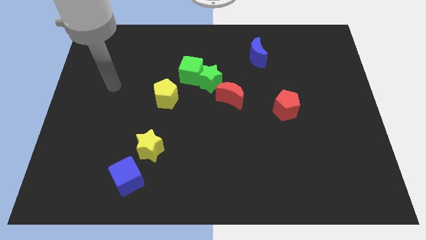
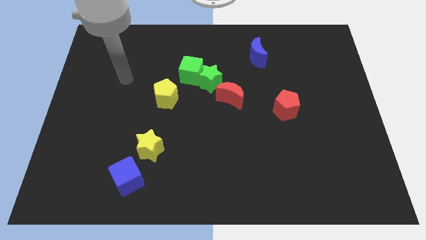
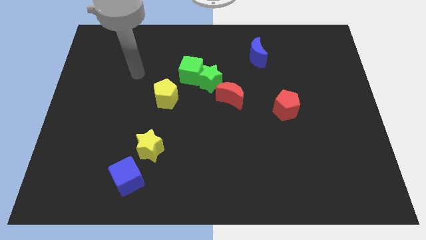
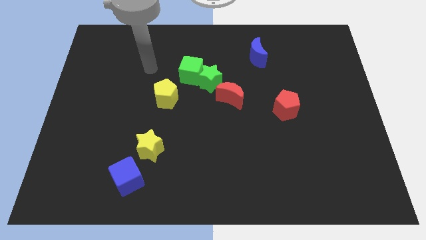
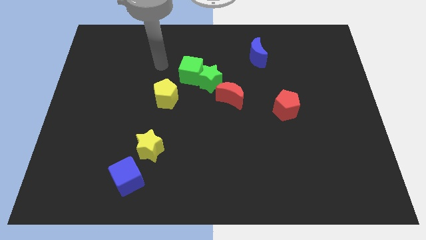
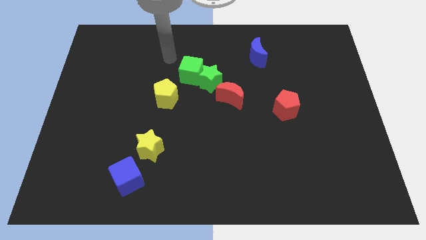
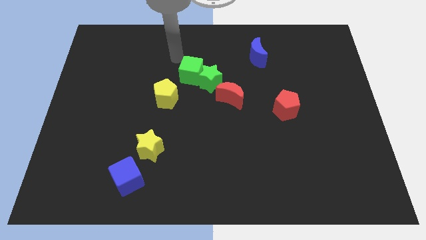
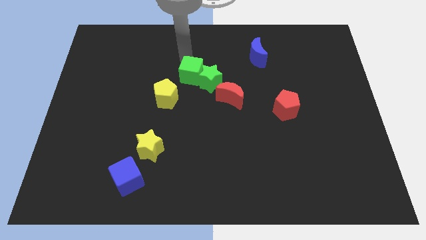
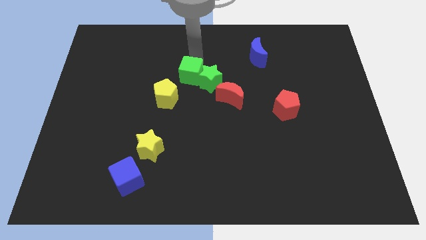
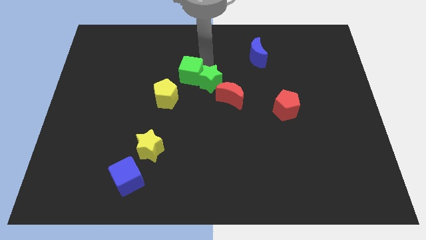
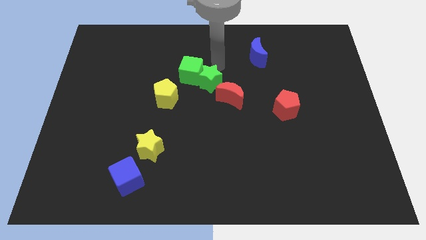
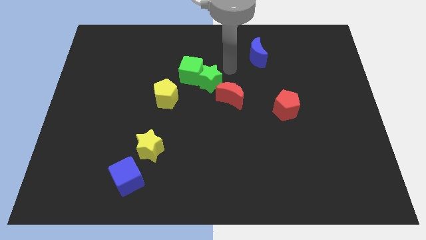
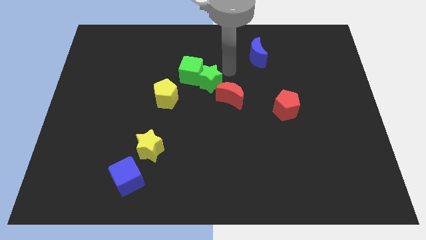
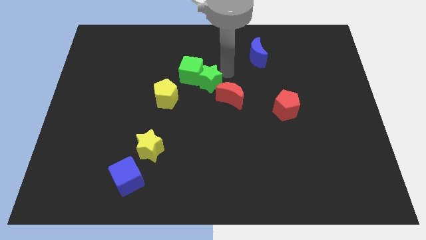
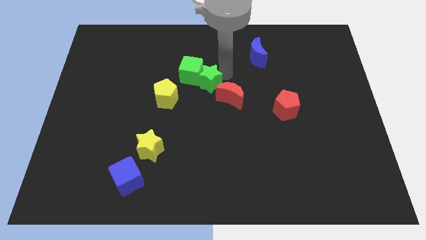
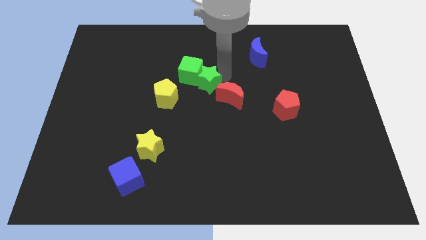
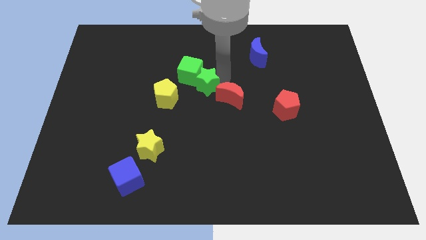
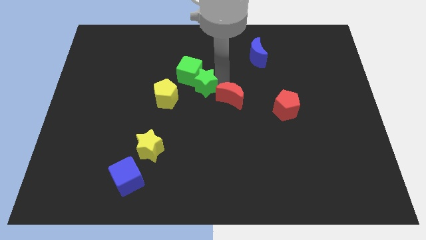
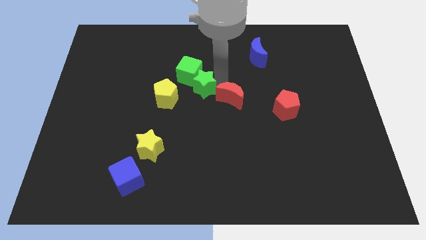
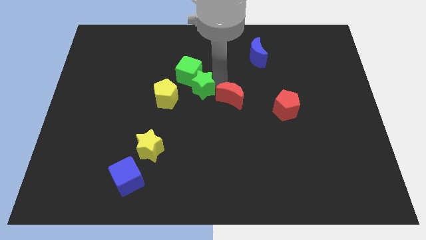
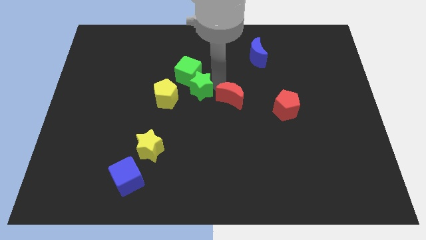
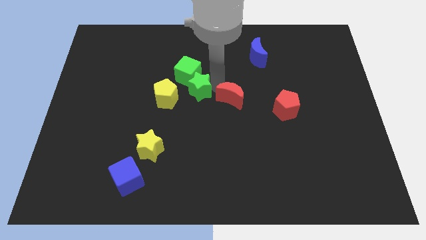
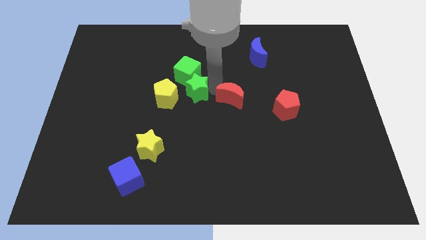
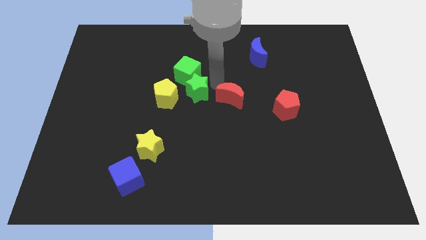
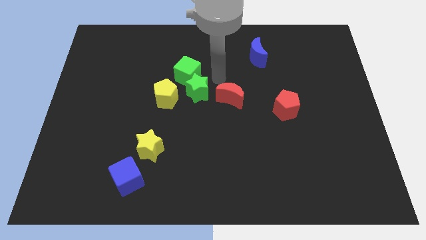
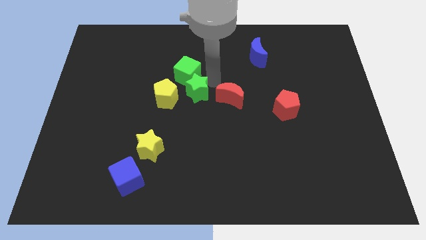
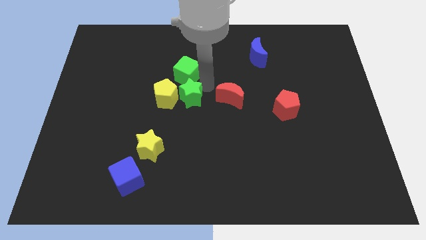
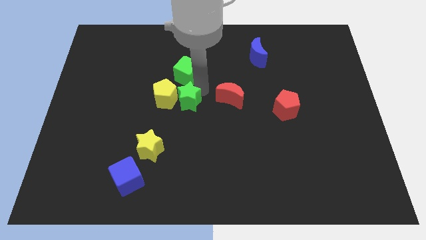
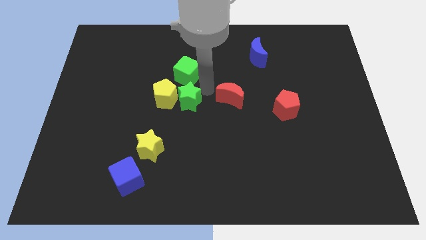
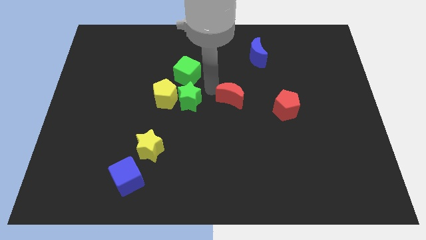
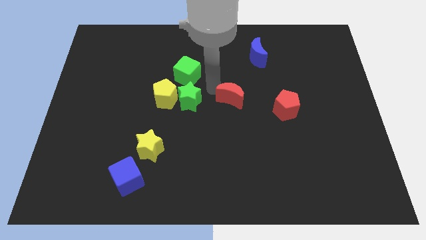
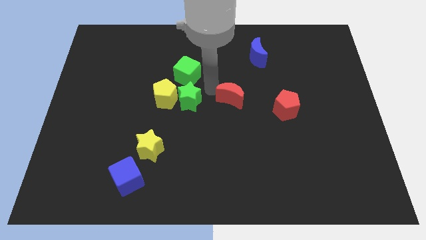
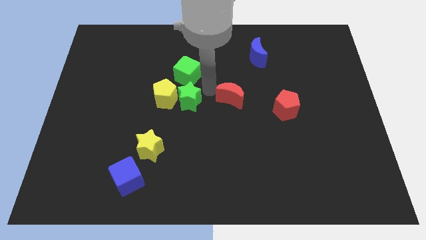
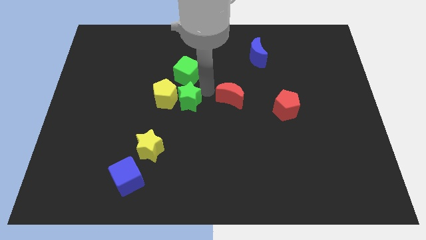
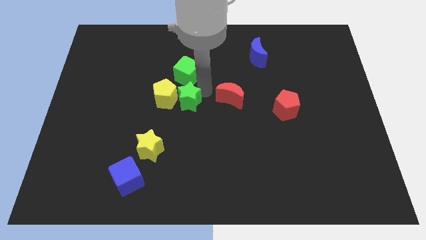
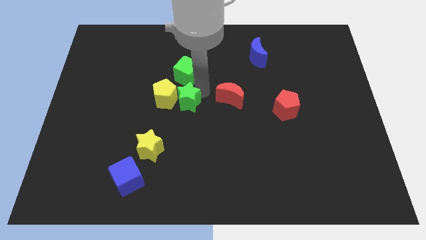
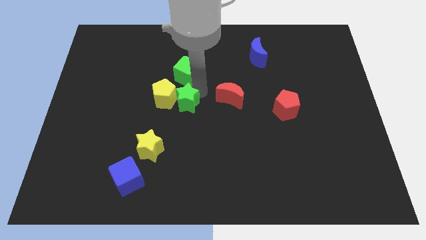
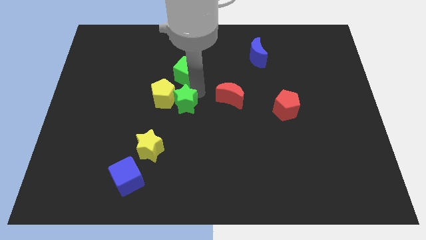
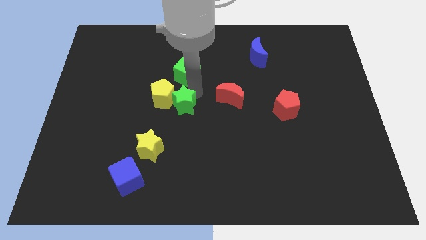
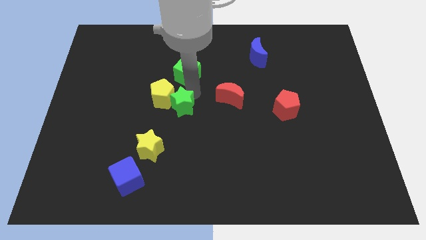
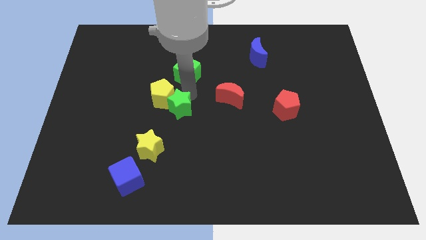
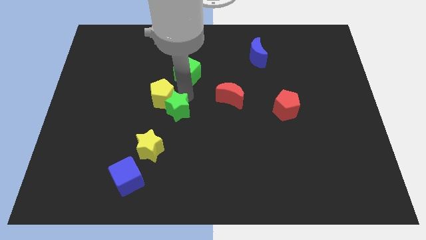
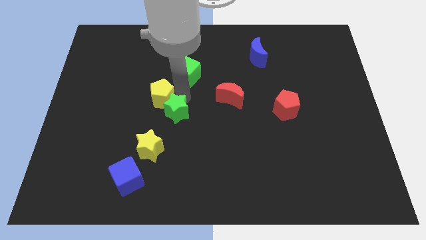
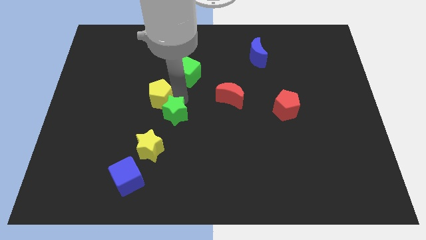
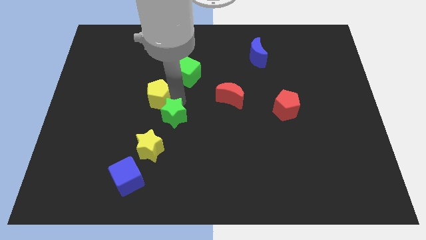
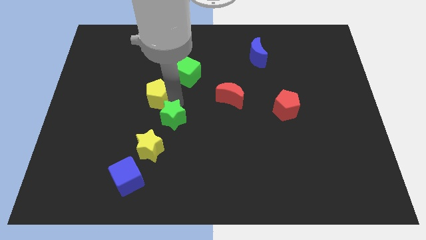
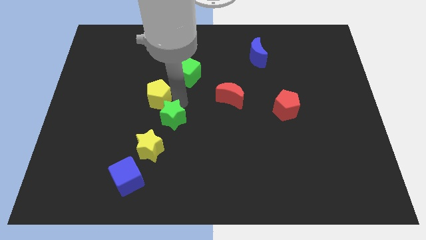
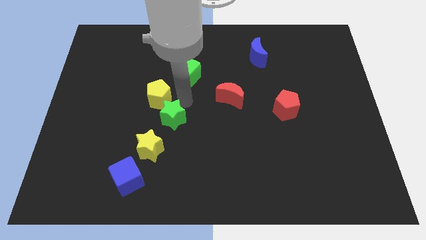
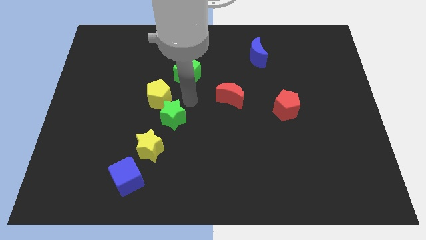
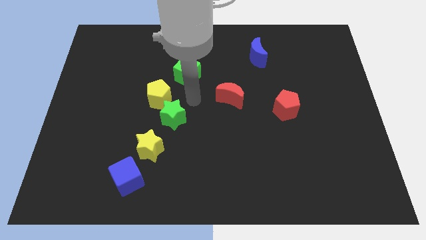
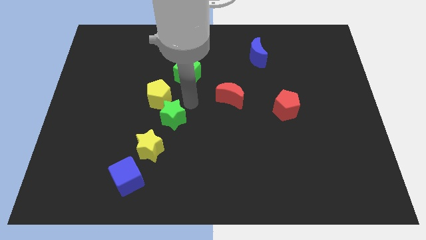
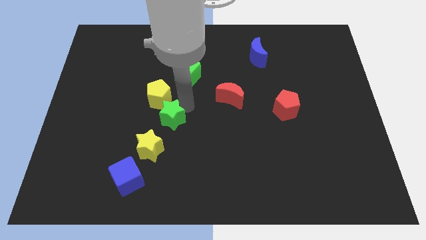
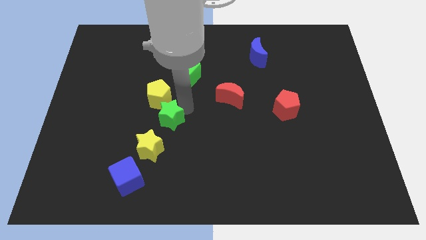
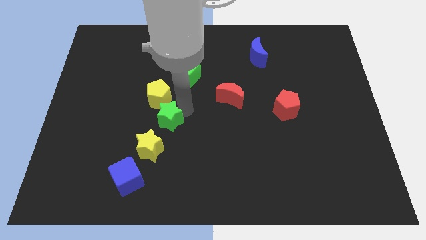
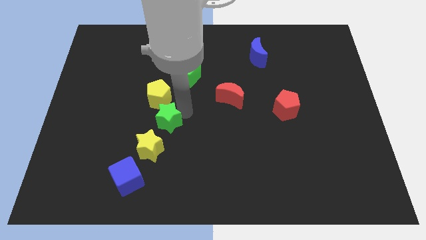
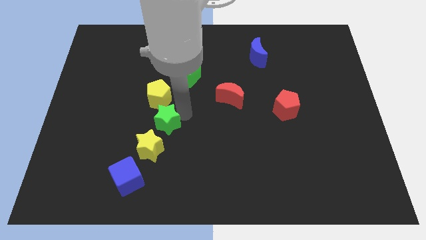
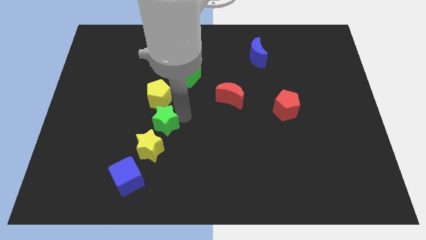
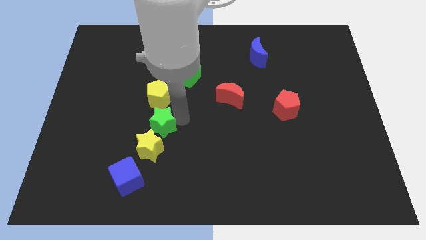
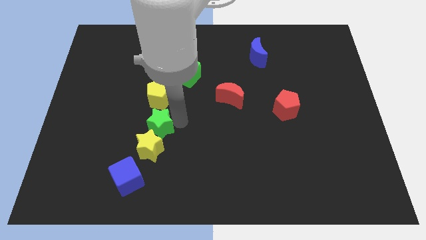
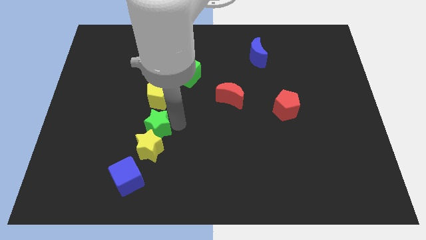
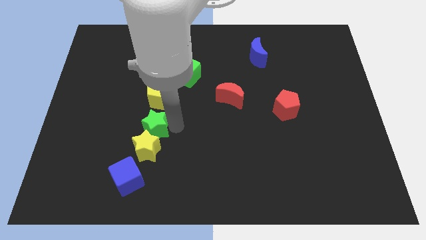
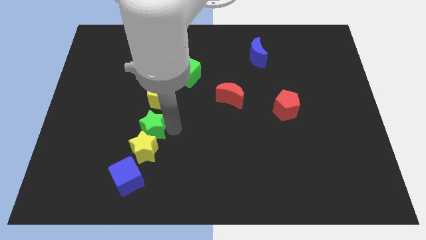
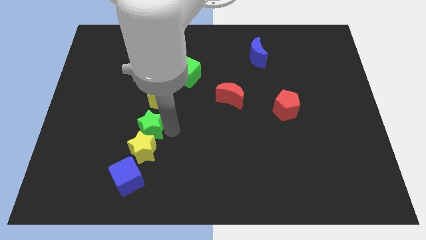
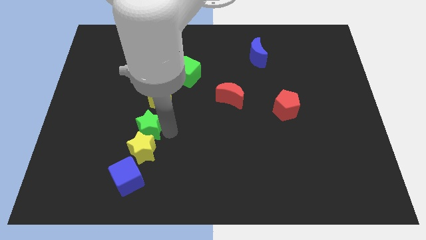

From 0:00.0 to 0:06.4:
slide the green star diagonally down and to the left

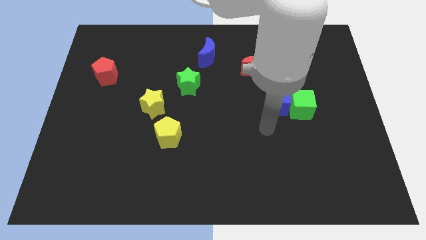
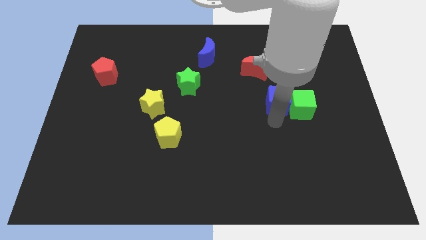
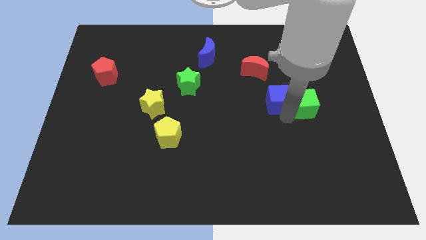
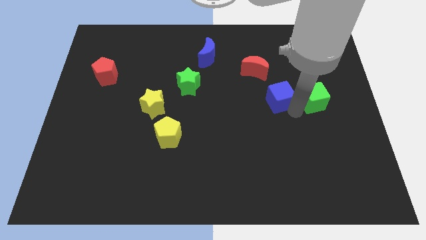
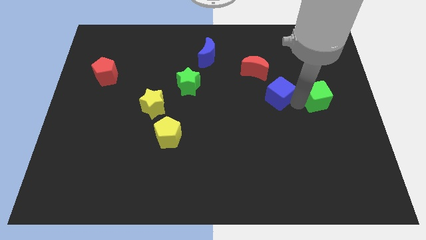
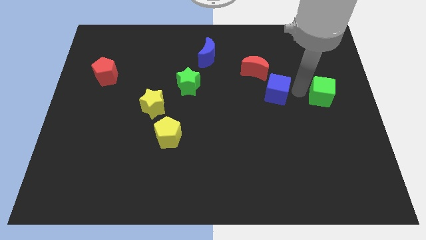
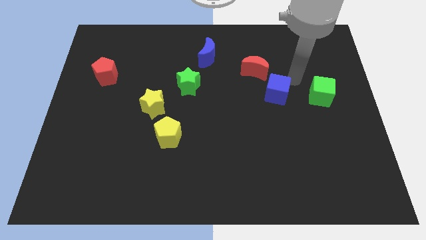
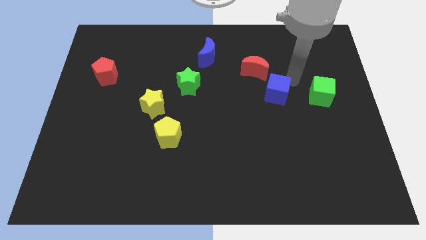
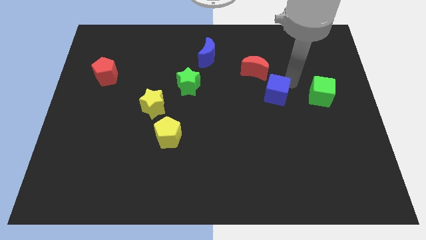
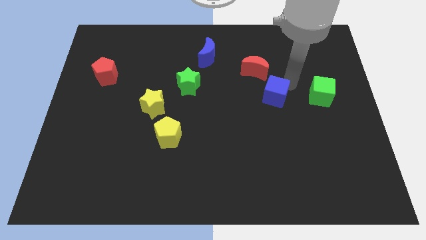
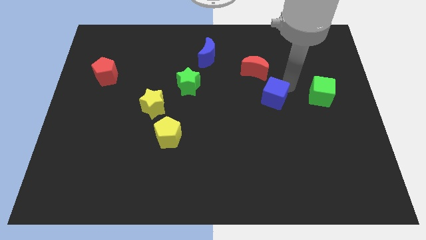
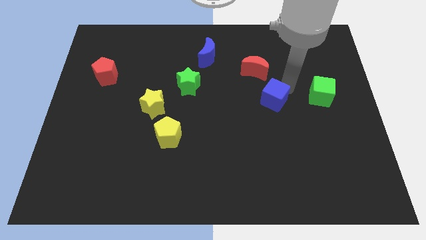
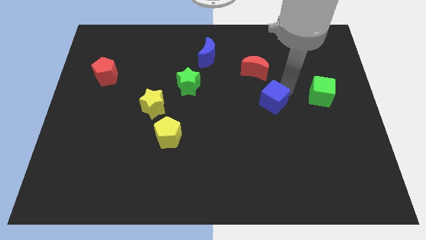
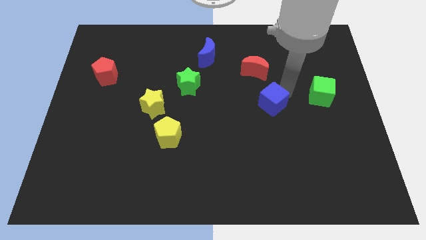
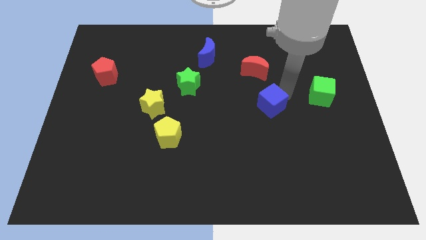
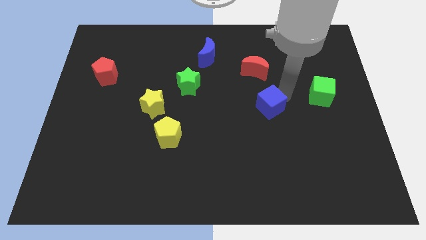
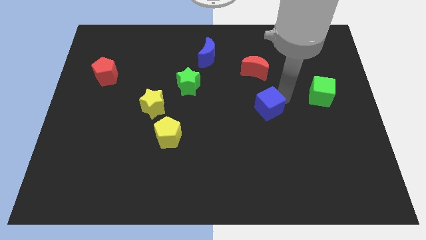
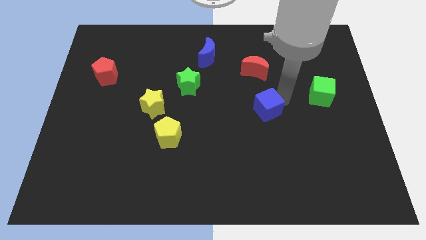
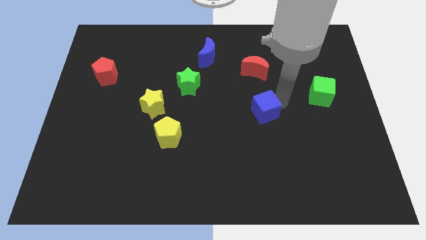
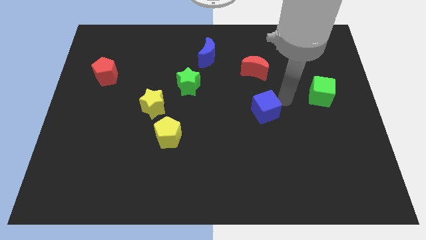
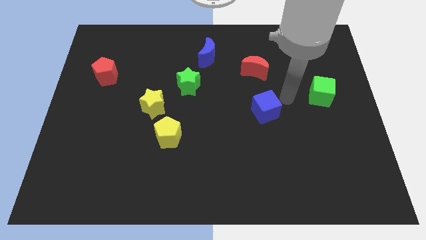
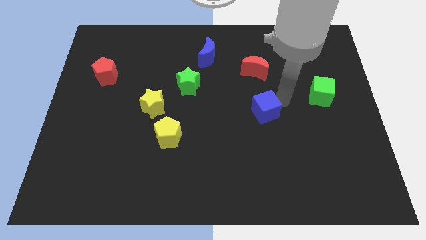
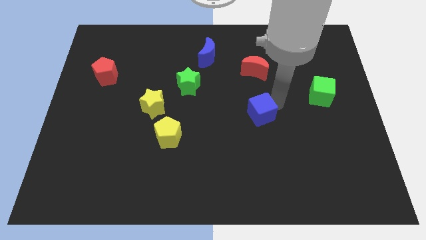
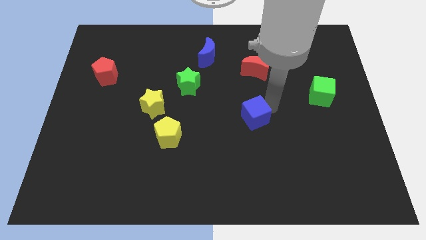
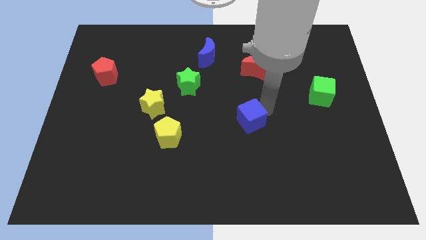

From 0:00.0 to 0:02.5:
slide the blue cube slightly diagonally downwards and left
